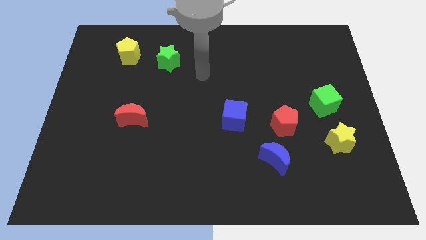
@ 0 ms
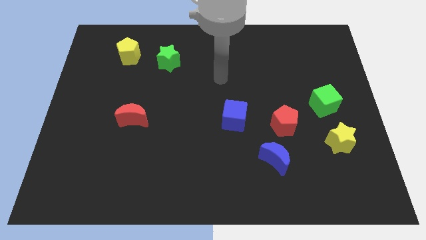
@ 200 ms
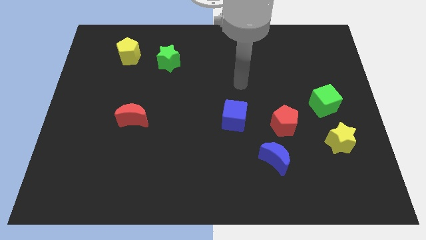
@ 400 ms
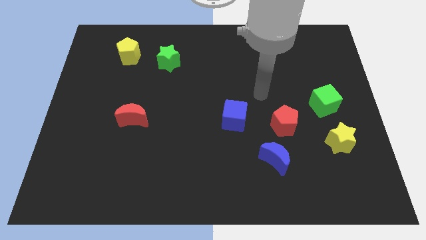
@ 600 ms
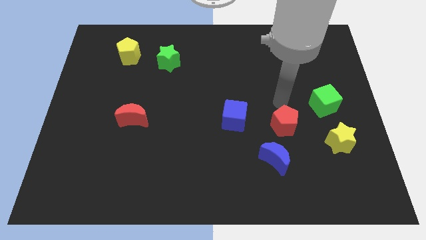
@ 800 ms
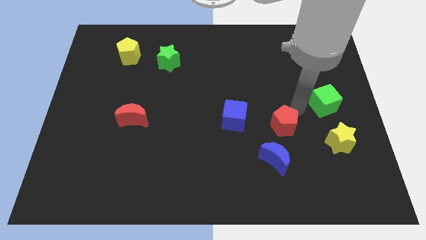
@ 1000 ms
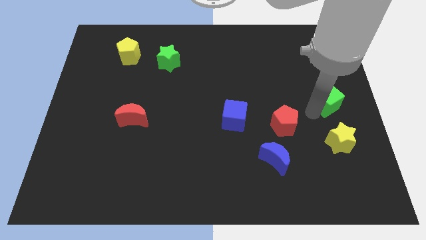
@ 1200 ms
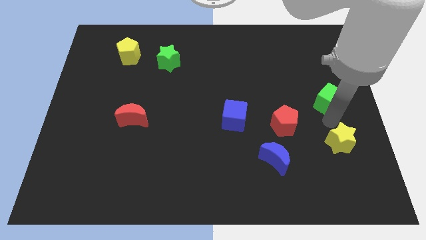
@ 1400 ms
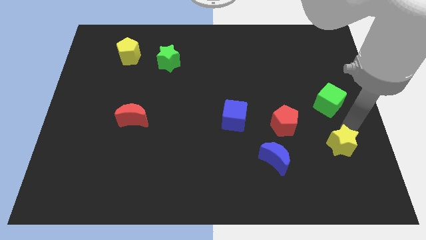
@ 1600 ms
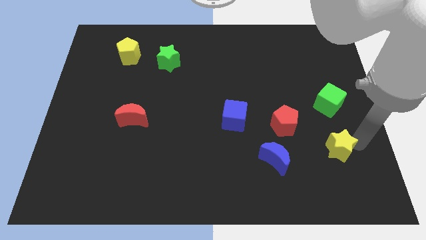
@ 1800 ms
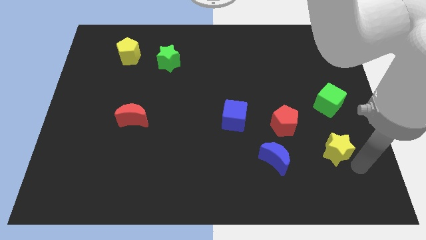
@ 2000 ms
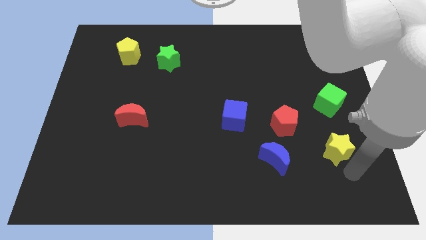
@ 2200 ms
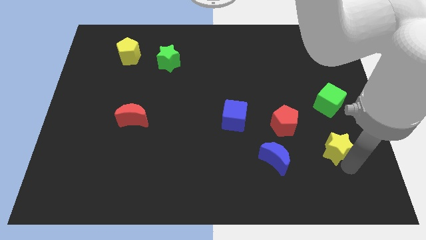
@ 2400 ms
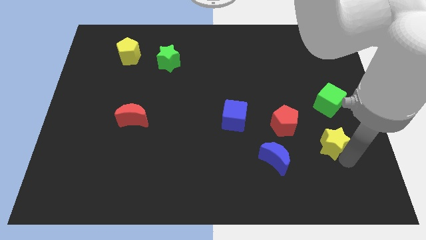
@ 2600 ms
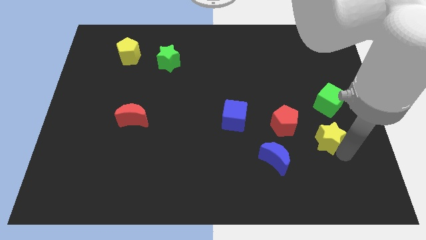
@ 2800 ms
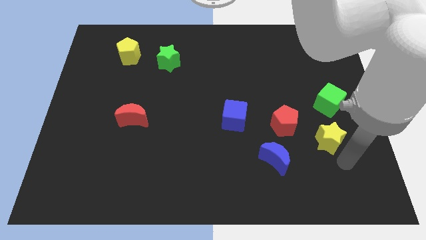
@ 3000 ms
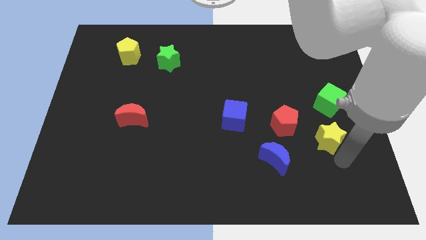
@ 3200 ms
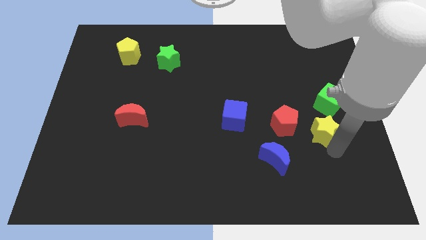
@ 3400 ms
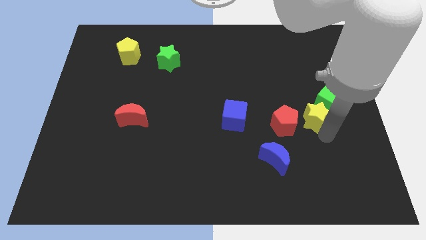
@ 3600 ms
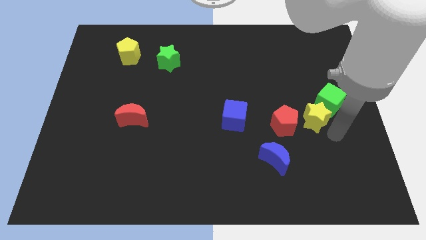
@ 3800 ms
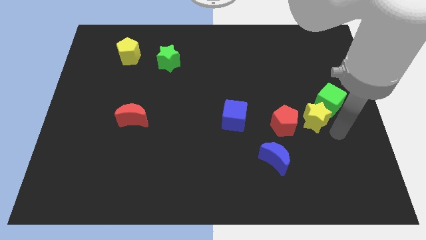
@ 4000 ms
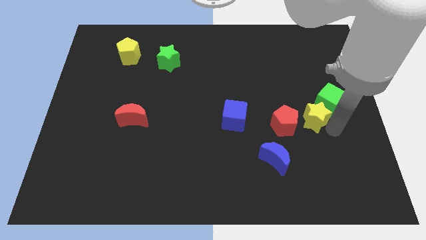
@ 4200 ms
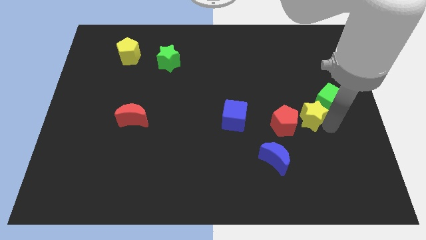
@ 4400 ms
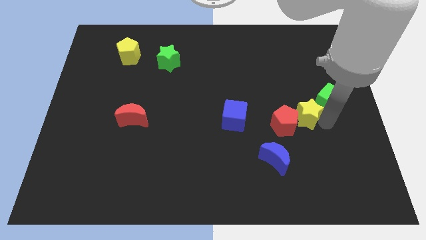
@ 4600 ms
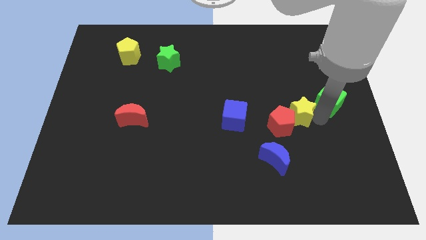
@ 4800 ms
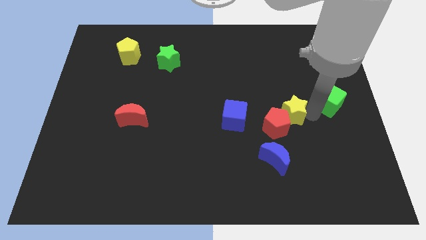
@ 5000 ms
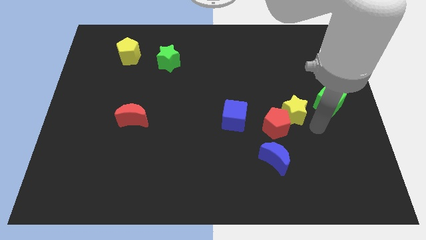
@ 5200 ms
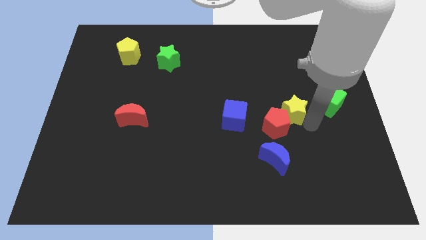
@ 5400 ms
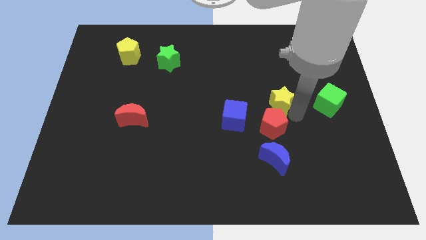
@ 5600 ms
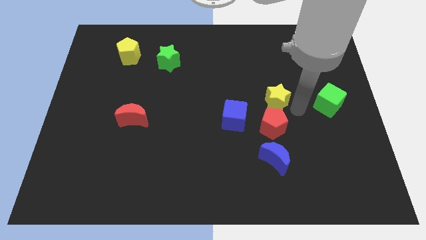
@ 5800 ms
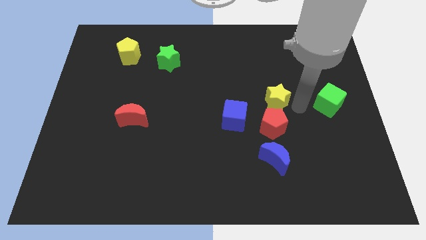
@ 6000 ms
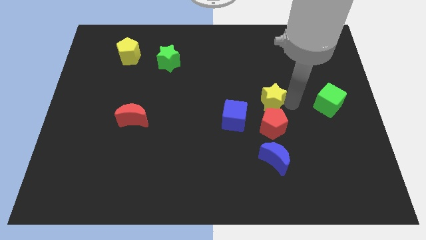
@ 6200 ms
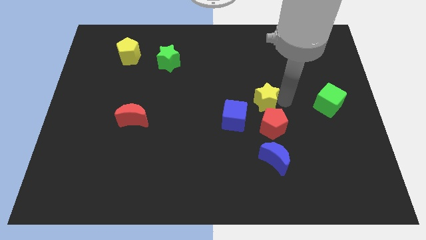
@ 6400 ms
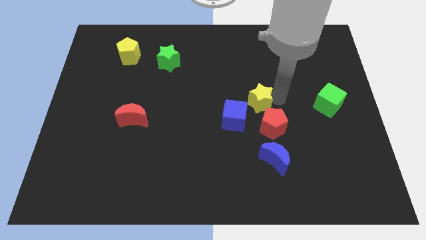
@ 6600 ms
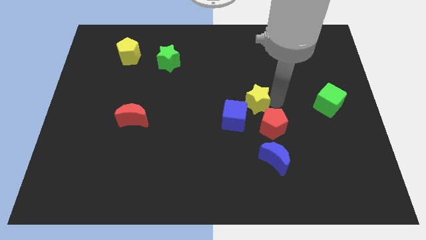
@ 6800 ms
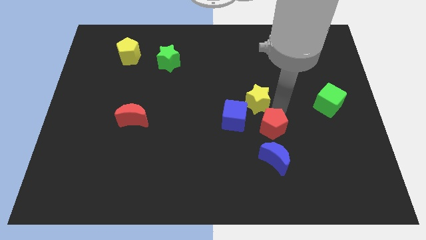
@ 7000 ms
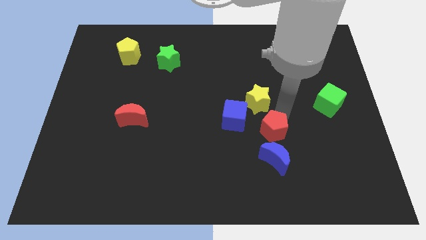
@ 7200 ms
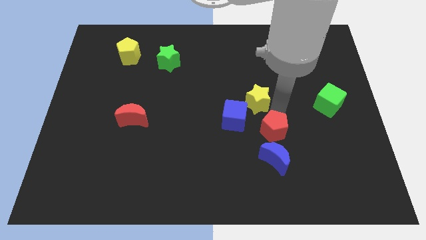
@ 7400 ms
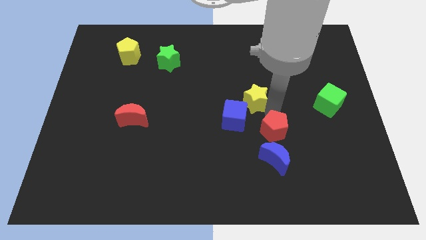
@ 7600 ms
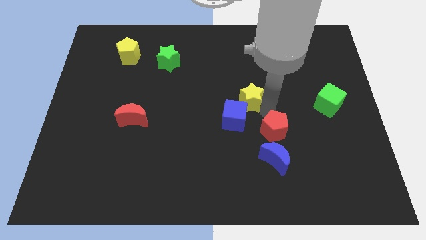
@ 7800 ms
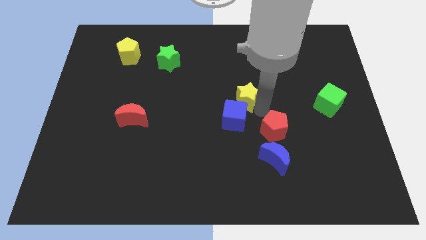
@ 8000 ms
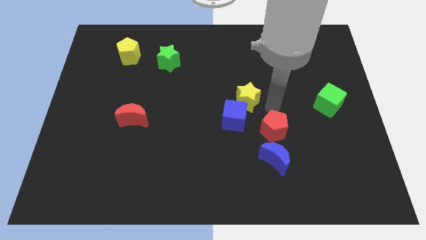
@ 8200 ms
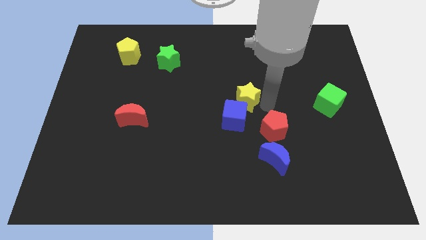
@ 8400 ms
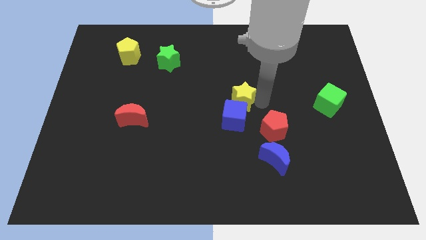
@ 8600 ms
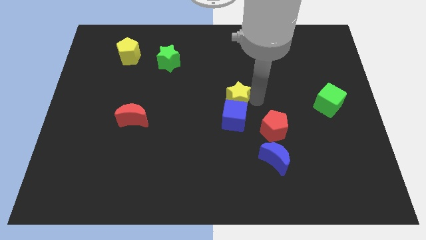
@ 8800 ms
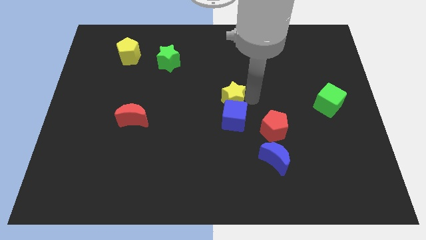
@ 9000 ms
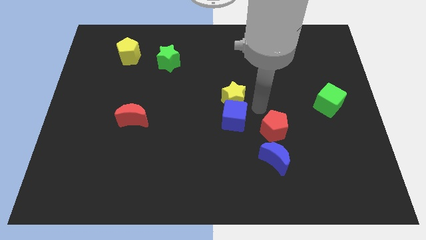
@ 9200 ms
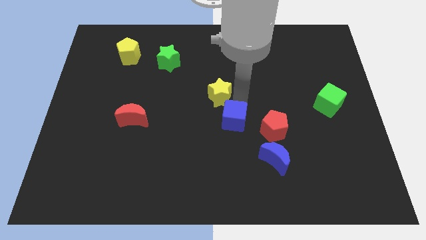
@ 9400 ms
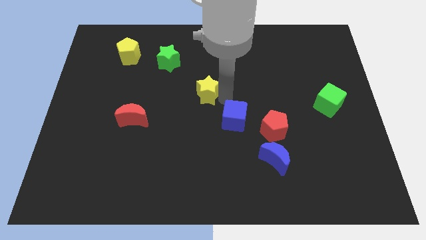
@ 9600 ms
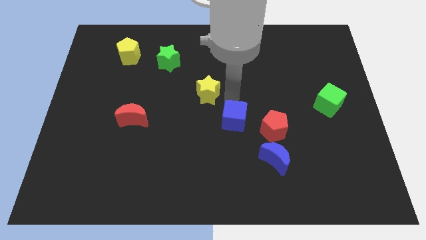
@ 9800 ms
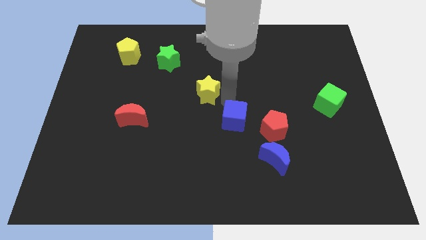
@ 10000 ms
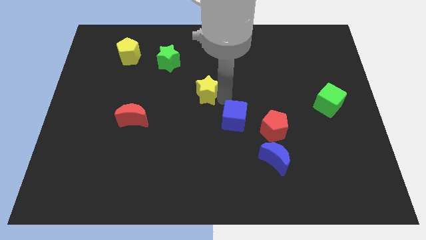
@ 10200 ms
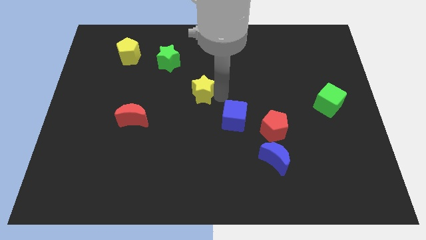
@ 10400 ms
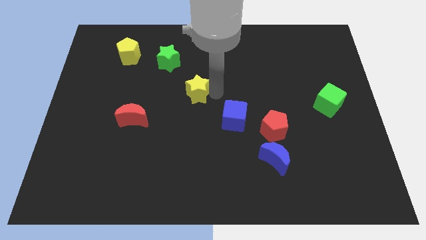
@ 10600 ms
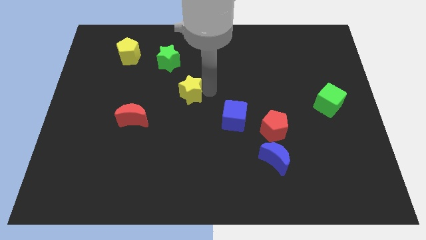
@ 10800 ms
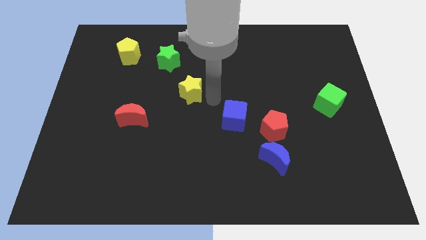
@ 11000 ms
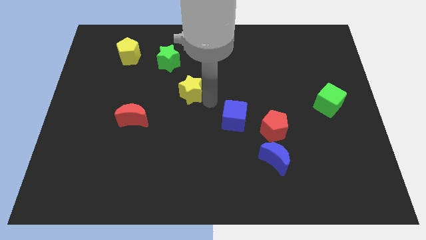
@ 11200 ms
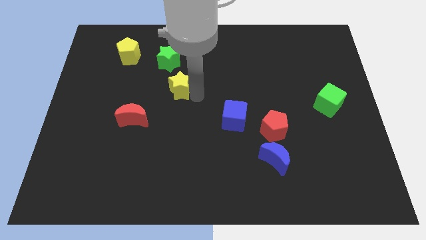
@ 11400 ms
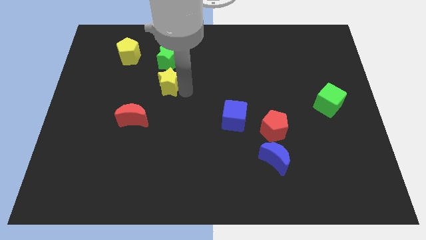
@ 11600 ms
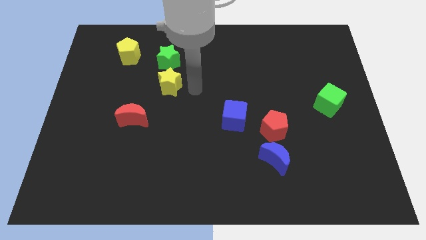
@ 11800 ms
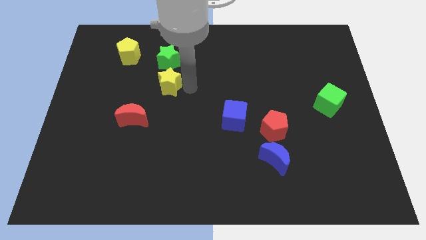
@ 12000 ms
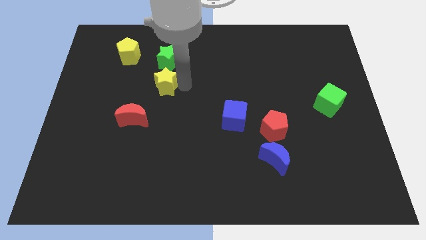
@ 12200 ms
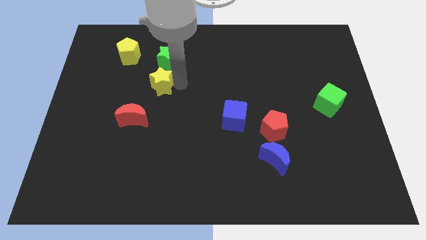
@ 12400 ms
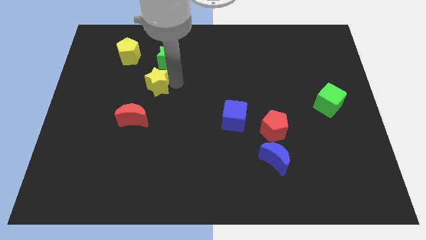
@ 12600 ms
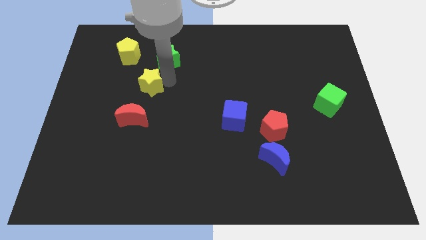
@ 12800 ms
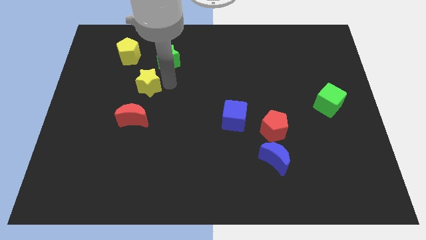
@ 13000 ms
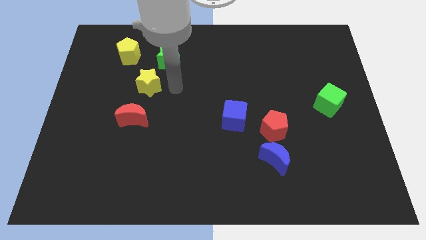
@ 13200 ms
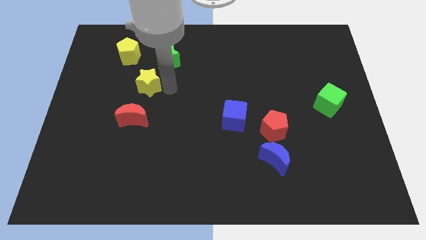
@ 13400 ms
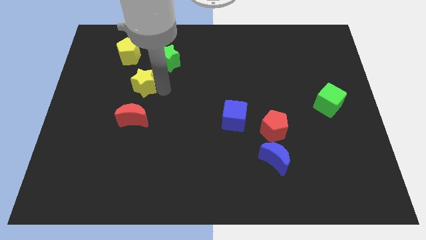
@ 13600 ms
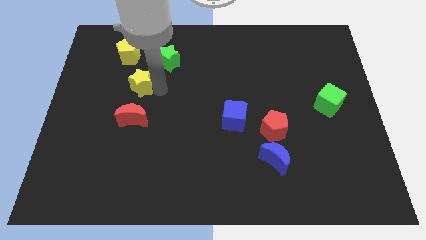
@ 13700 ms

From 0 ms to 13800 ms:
push the yellow star to the bottom of the yellow pentagon
